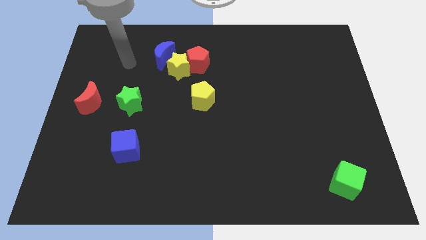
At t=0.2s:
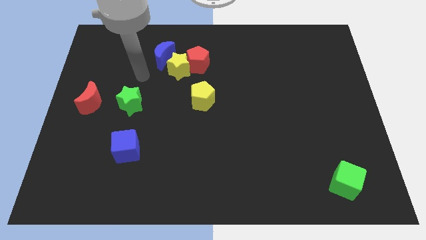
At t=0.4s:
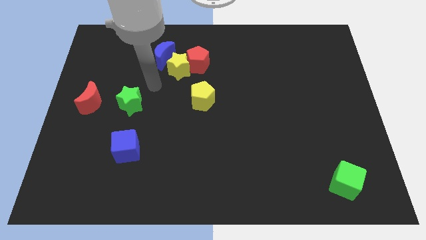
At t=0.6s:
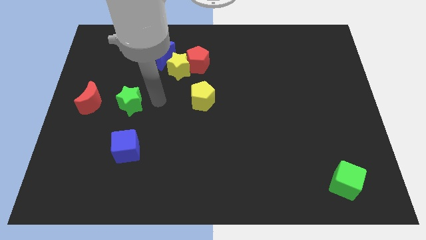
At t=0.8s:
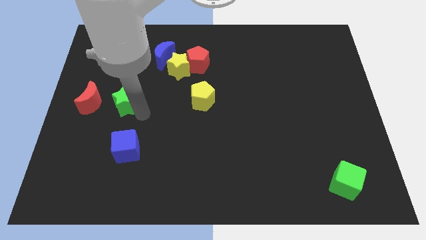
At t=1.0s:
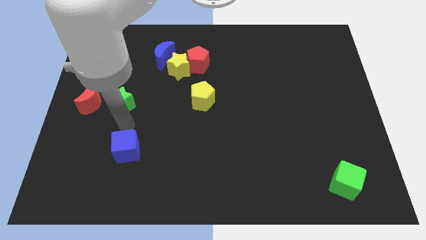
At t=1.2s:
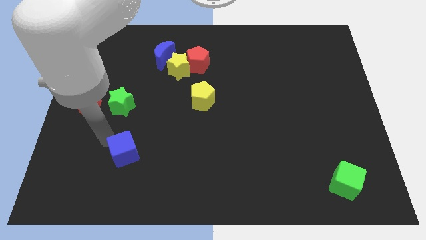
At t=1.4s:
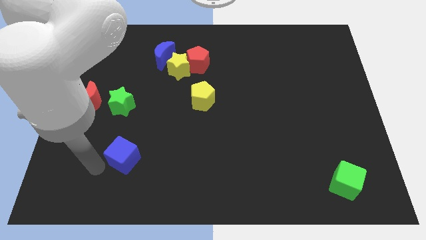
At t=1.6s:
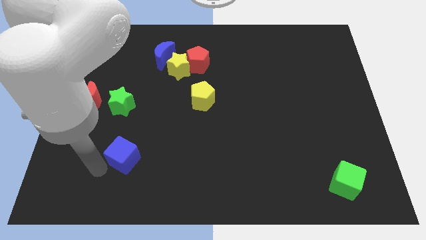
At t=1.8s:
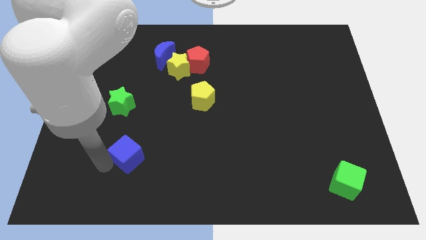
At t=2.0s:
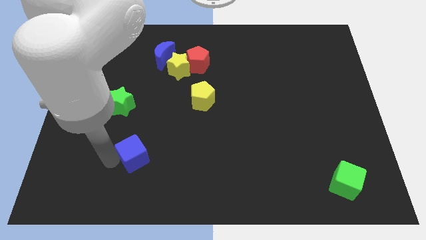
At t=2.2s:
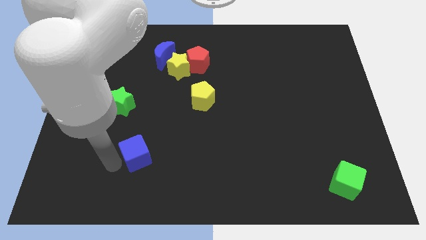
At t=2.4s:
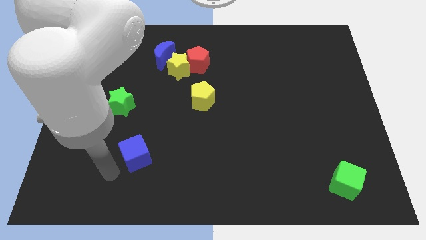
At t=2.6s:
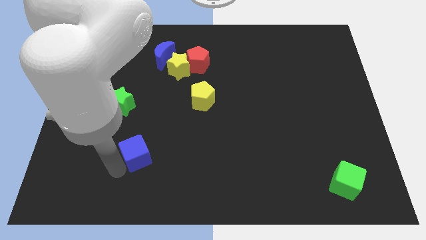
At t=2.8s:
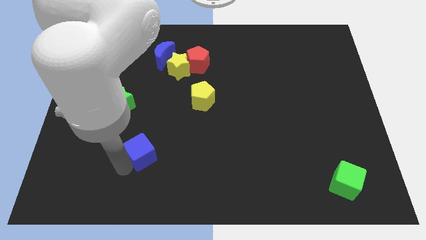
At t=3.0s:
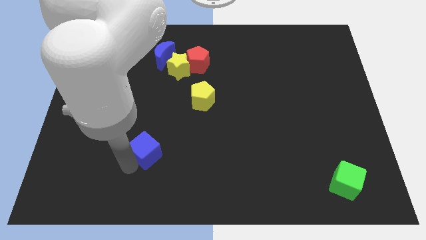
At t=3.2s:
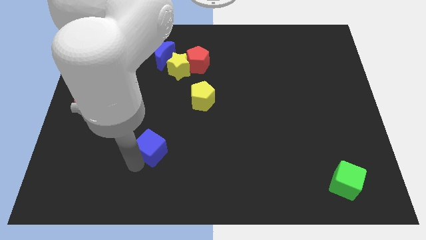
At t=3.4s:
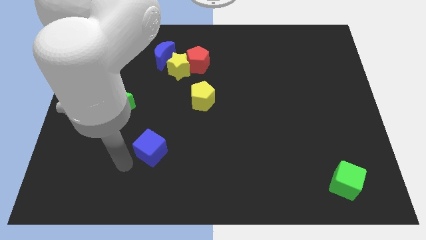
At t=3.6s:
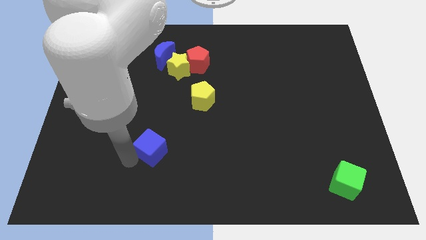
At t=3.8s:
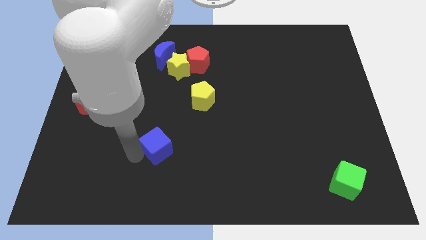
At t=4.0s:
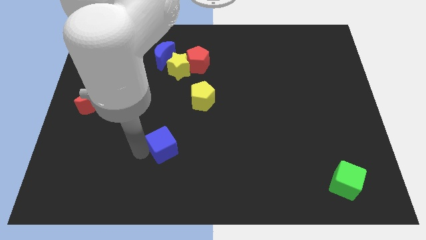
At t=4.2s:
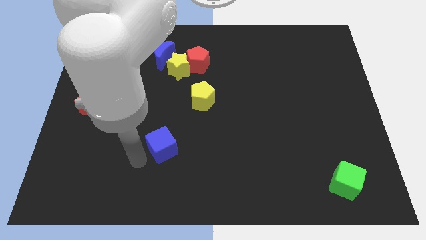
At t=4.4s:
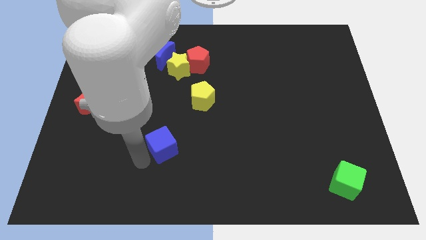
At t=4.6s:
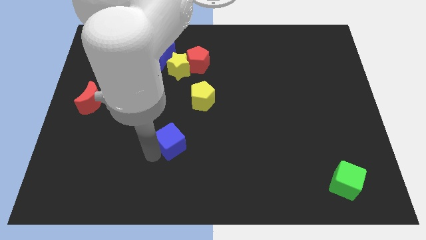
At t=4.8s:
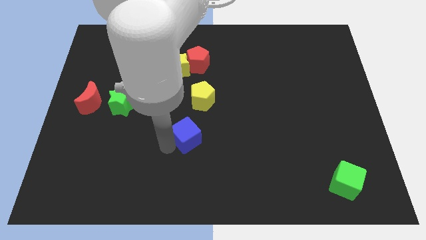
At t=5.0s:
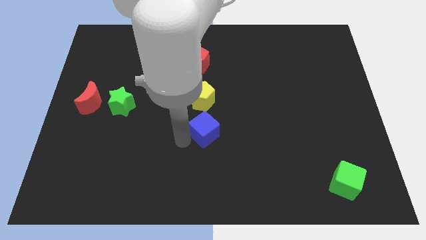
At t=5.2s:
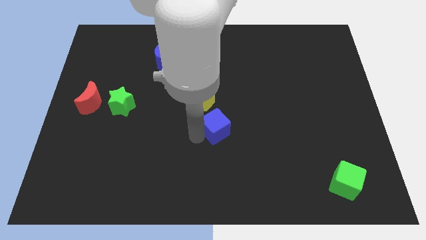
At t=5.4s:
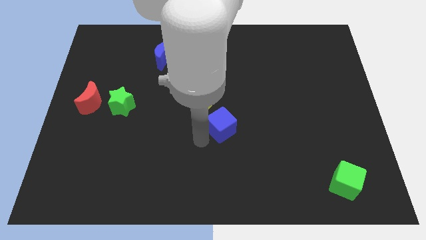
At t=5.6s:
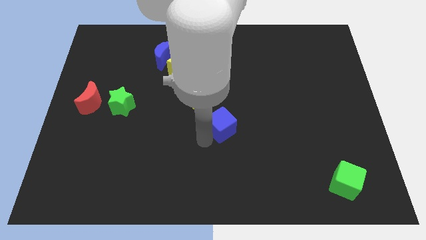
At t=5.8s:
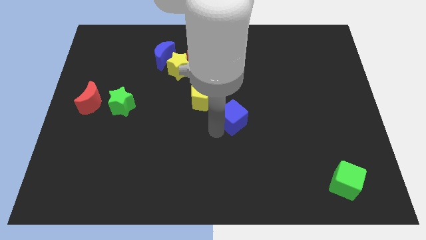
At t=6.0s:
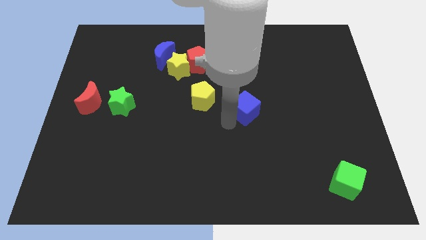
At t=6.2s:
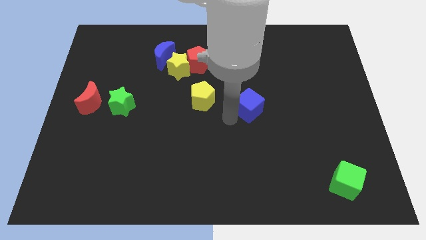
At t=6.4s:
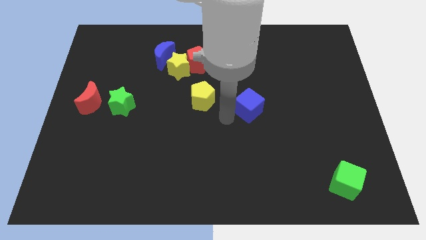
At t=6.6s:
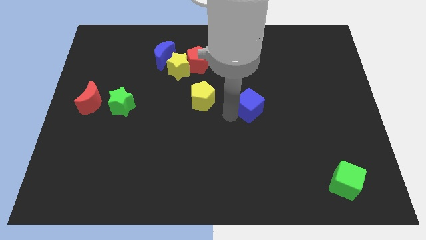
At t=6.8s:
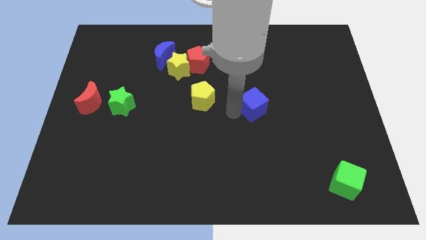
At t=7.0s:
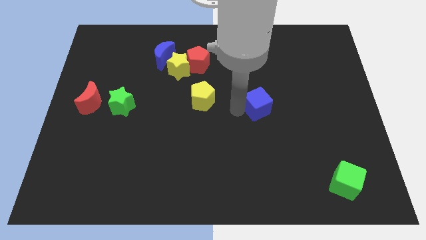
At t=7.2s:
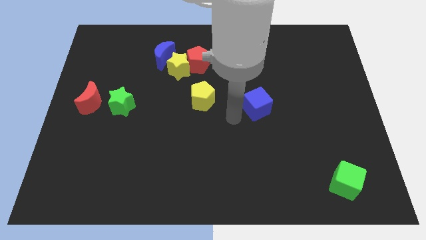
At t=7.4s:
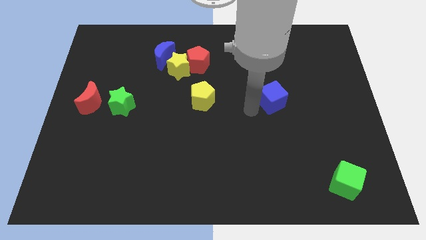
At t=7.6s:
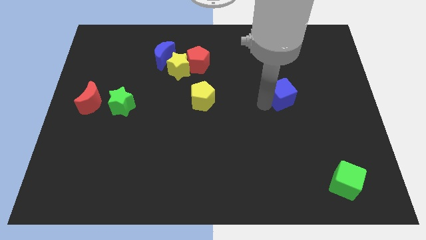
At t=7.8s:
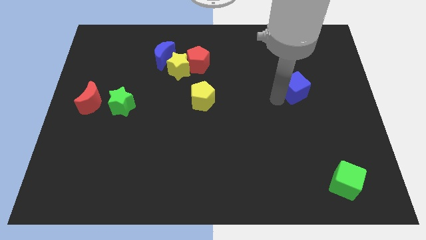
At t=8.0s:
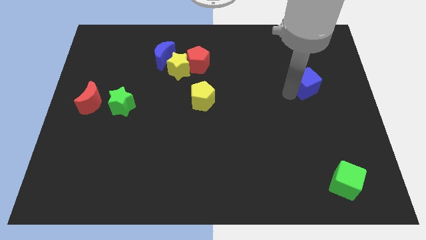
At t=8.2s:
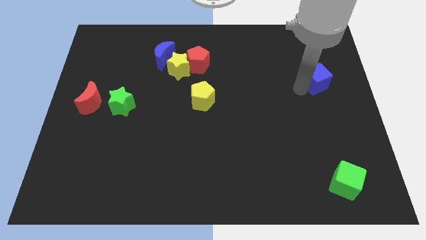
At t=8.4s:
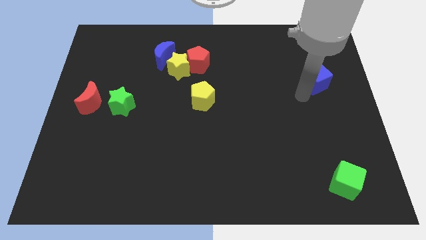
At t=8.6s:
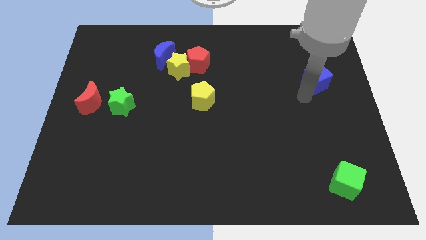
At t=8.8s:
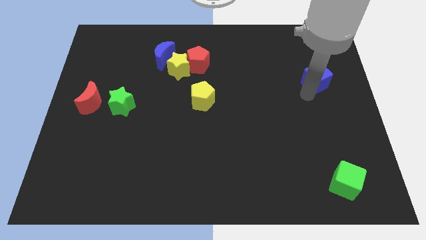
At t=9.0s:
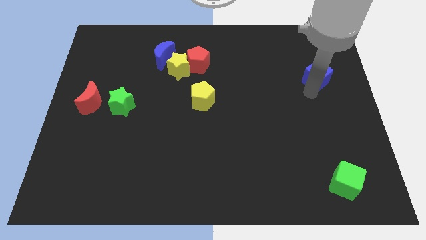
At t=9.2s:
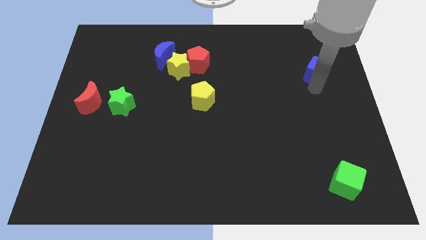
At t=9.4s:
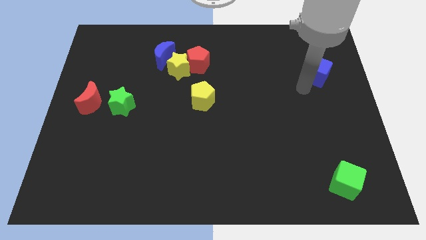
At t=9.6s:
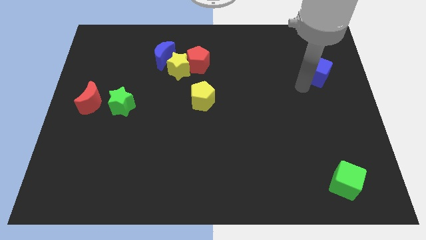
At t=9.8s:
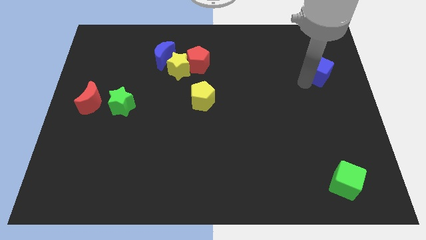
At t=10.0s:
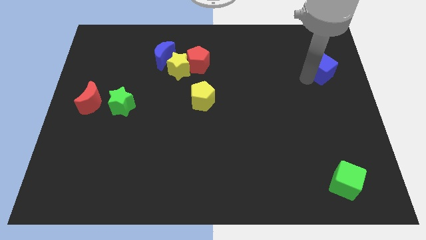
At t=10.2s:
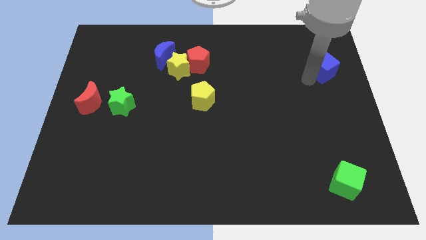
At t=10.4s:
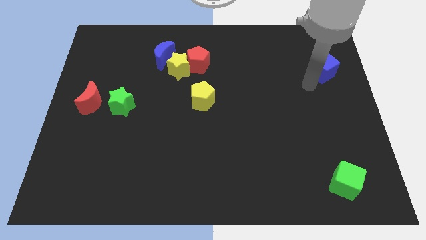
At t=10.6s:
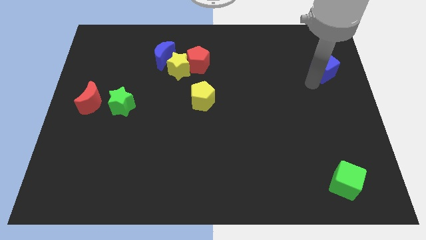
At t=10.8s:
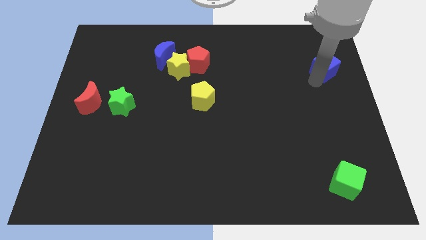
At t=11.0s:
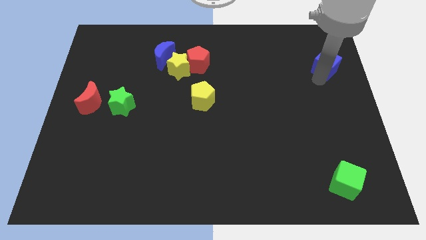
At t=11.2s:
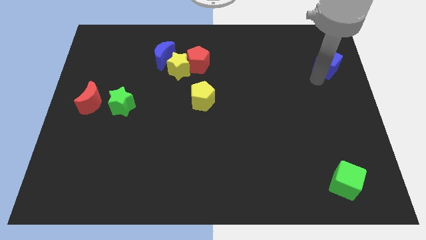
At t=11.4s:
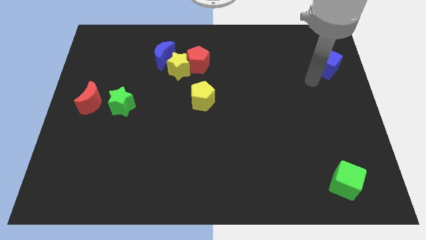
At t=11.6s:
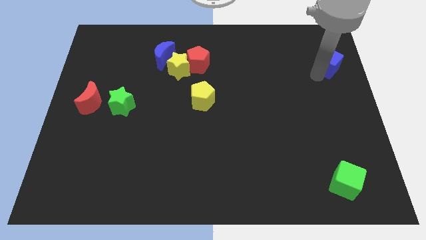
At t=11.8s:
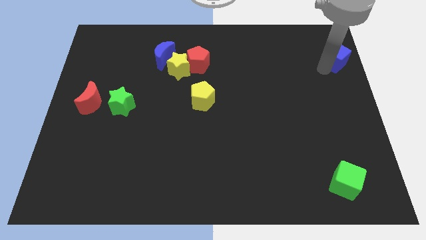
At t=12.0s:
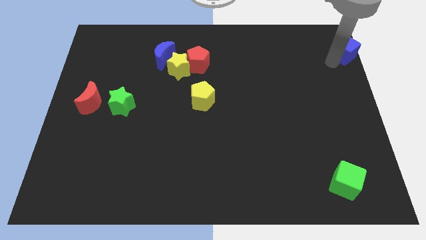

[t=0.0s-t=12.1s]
slide the blue cube to the top right of the board
